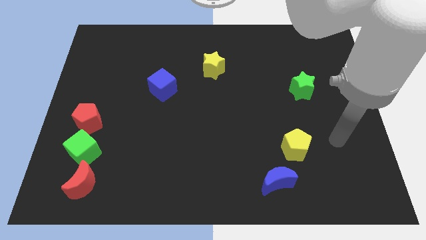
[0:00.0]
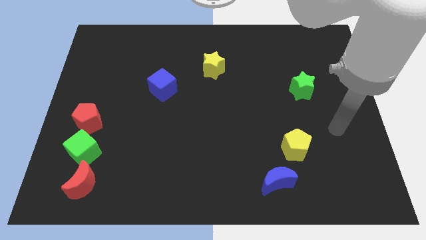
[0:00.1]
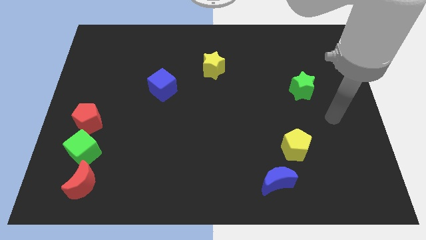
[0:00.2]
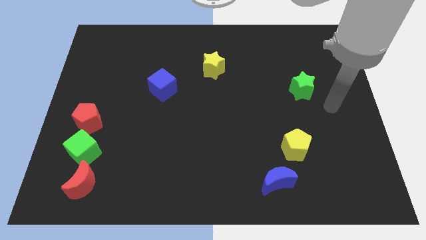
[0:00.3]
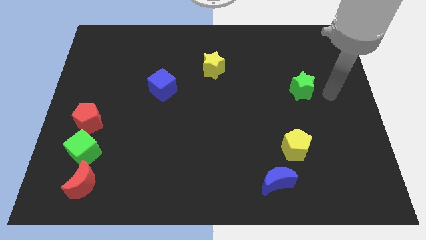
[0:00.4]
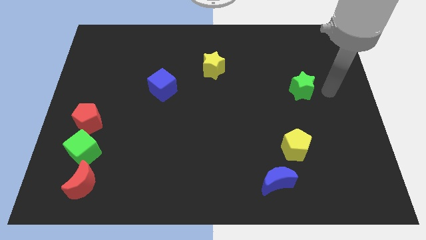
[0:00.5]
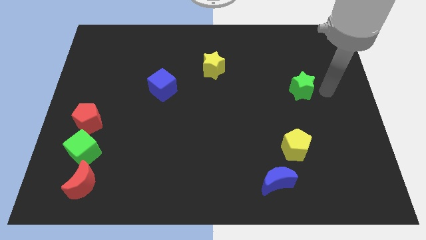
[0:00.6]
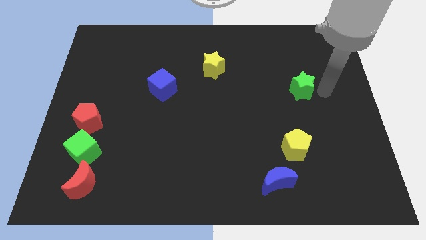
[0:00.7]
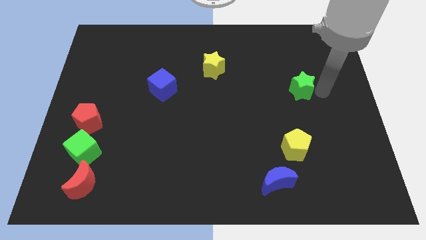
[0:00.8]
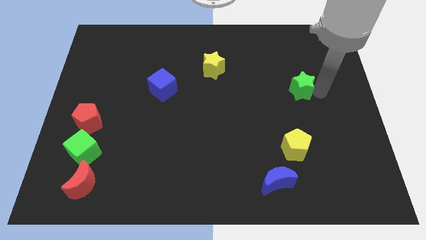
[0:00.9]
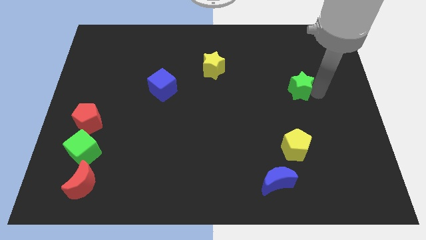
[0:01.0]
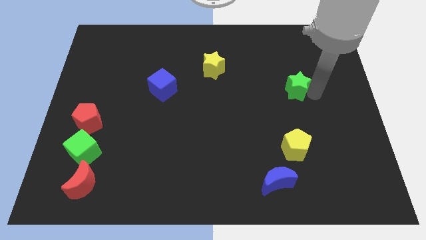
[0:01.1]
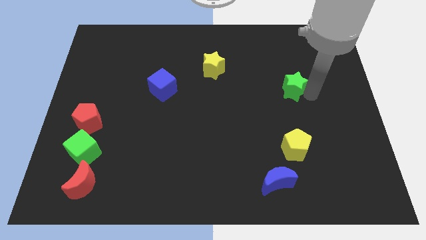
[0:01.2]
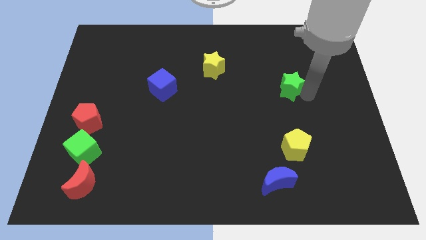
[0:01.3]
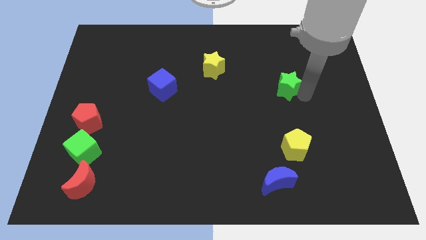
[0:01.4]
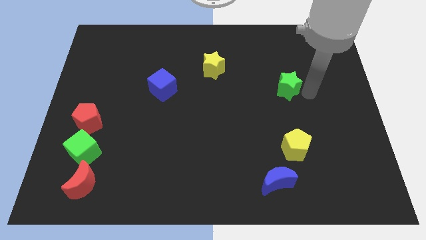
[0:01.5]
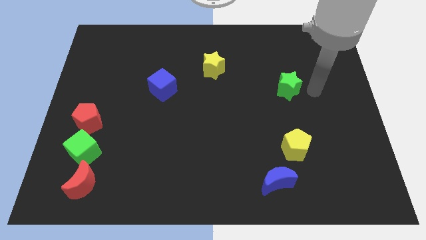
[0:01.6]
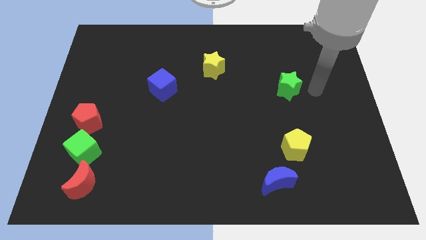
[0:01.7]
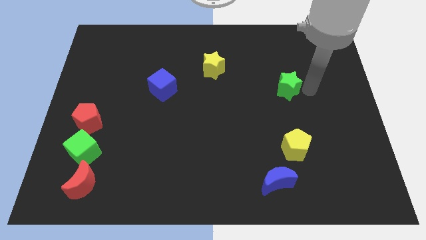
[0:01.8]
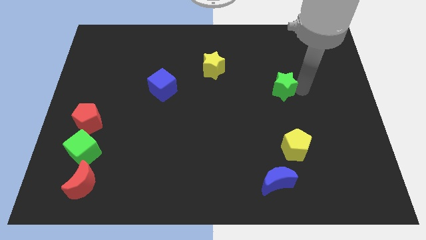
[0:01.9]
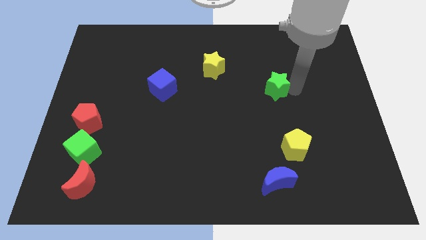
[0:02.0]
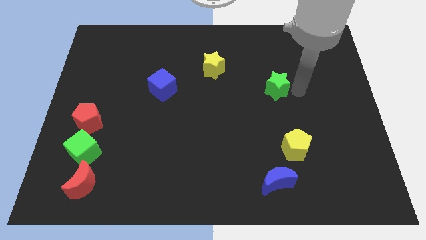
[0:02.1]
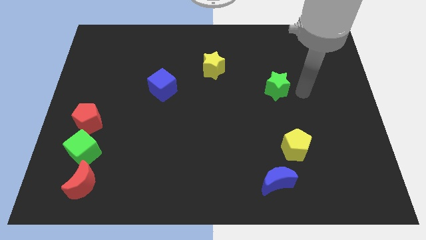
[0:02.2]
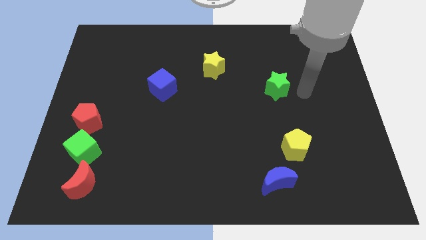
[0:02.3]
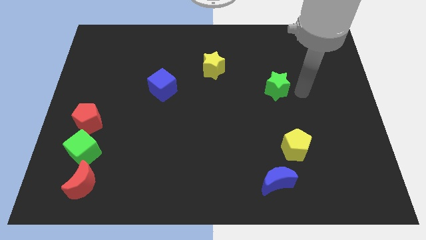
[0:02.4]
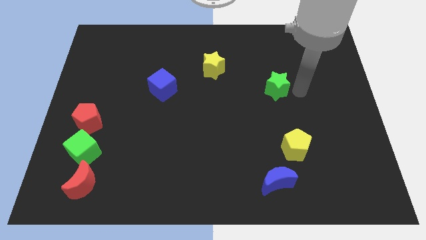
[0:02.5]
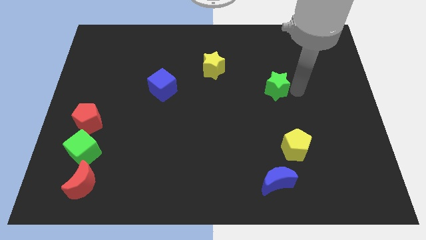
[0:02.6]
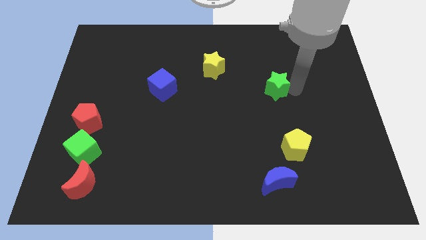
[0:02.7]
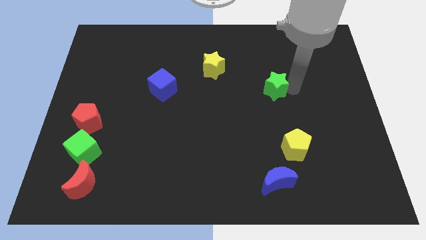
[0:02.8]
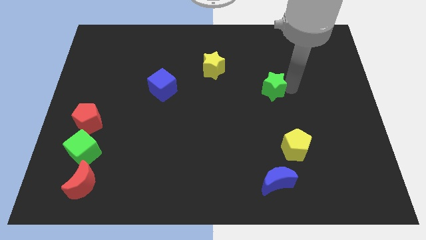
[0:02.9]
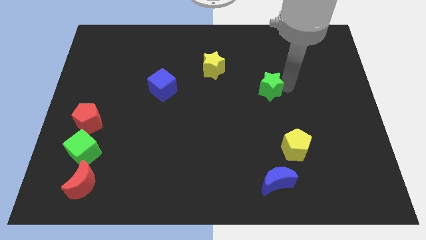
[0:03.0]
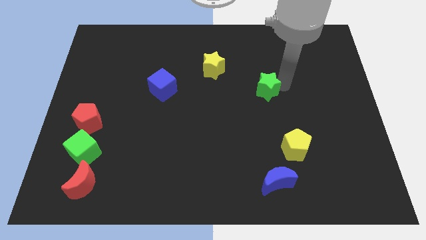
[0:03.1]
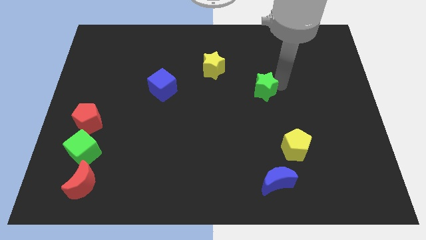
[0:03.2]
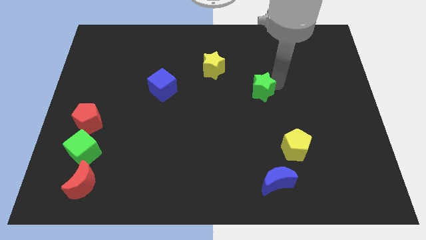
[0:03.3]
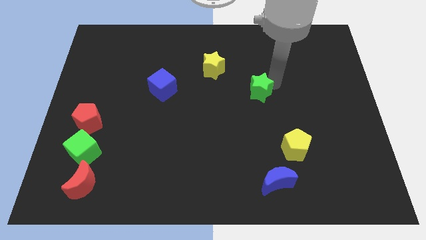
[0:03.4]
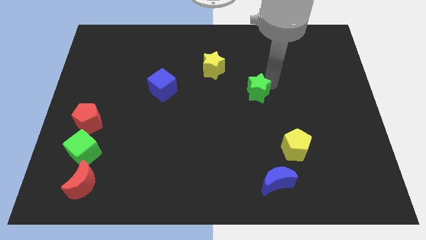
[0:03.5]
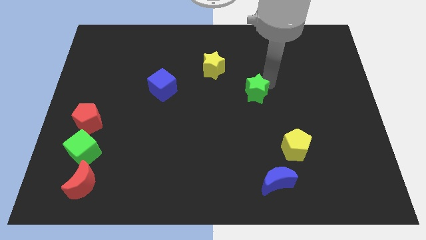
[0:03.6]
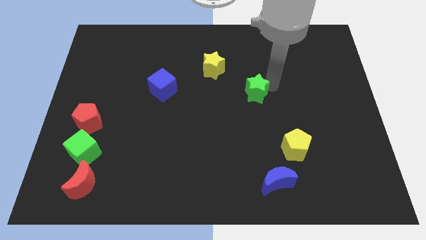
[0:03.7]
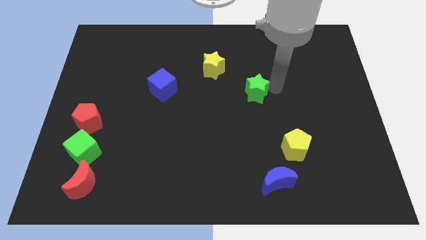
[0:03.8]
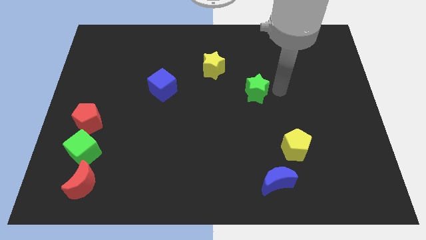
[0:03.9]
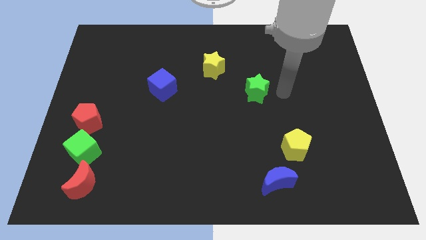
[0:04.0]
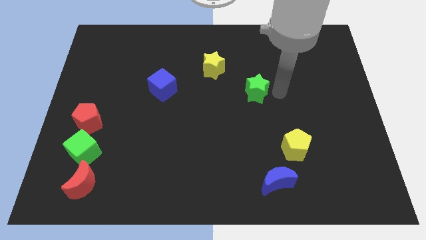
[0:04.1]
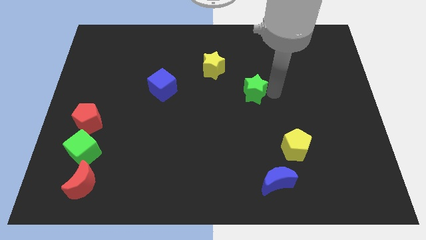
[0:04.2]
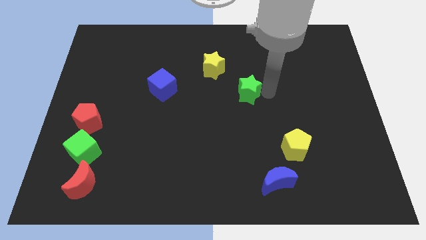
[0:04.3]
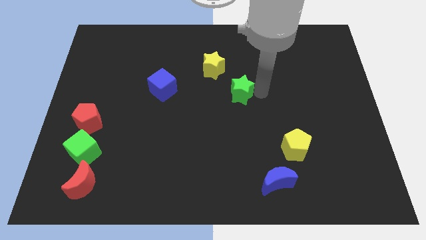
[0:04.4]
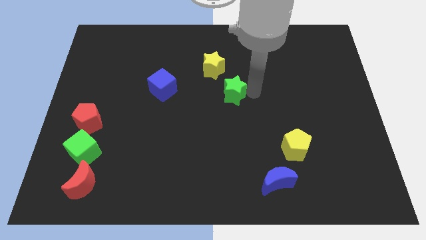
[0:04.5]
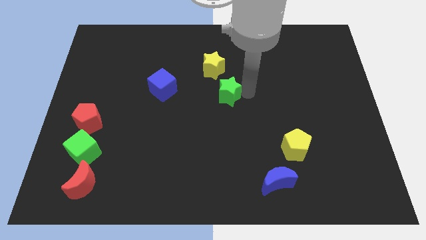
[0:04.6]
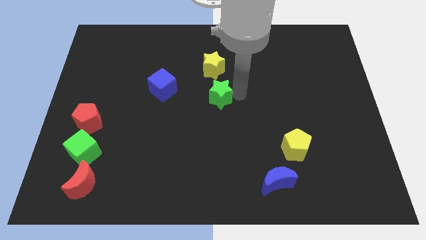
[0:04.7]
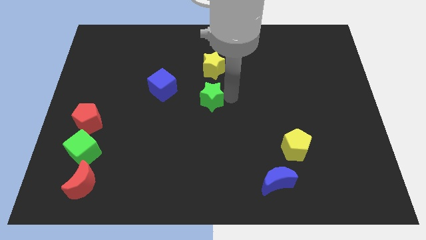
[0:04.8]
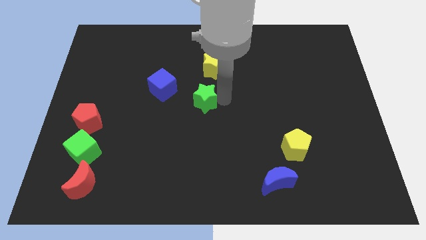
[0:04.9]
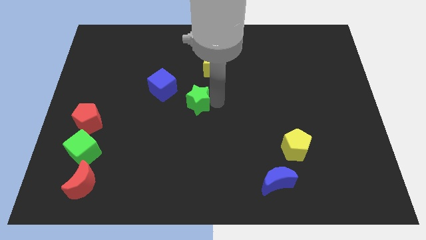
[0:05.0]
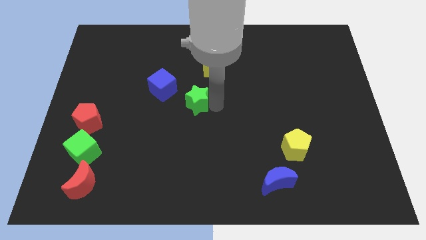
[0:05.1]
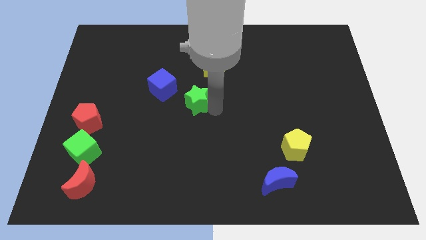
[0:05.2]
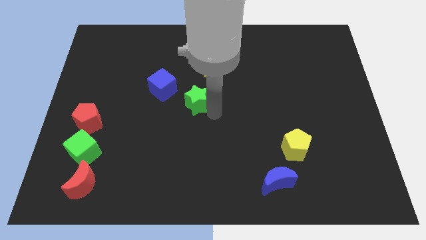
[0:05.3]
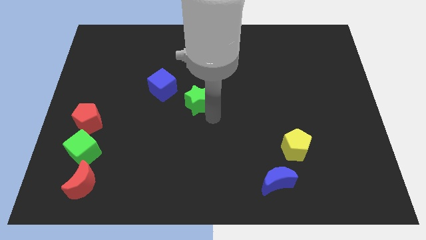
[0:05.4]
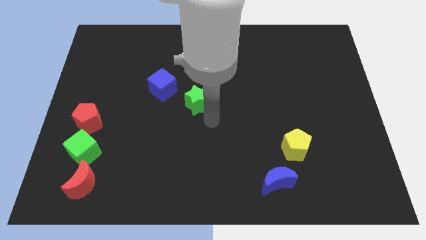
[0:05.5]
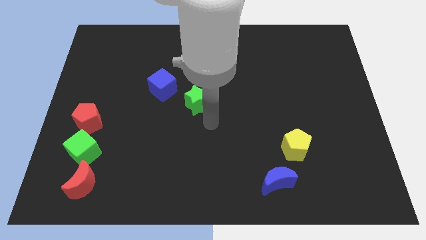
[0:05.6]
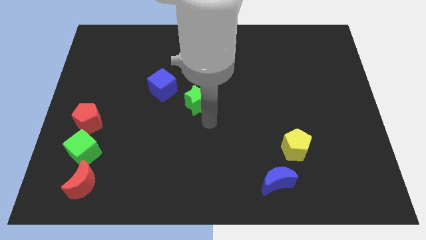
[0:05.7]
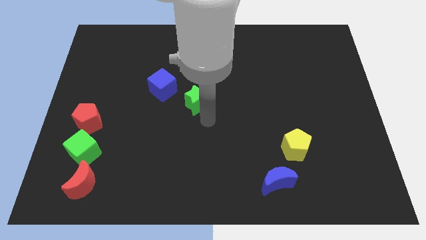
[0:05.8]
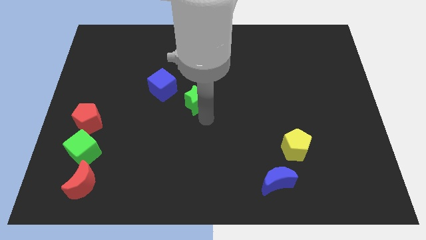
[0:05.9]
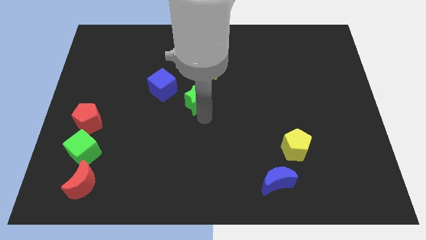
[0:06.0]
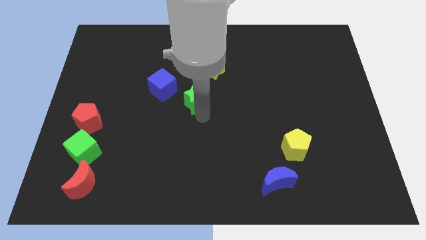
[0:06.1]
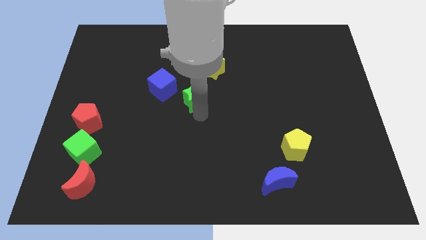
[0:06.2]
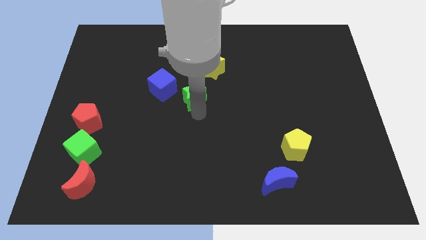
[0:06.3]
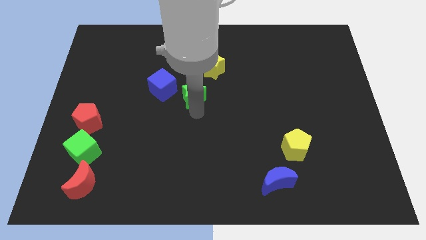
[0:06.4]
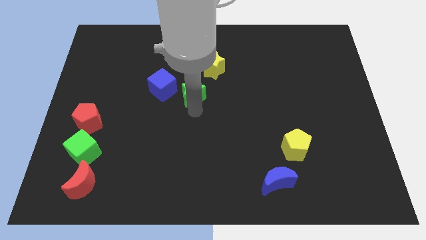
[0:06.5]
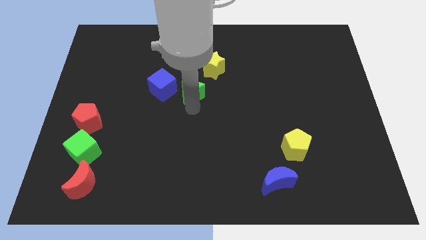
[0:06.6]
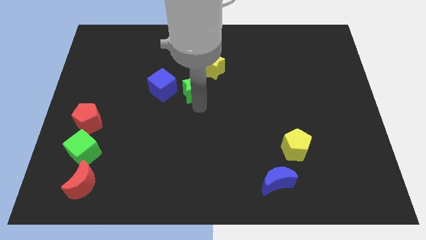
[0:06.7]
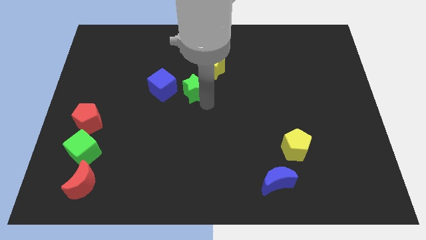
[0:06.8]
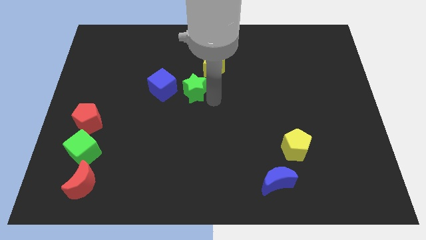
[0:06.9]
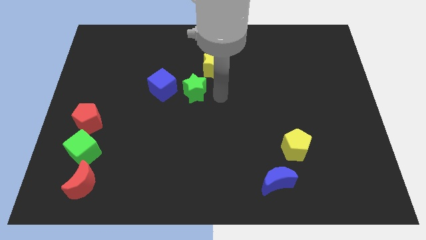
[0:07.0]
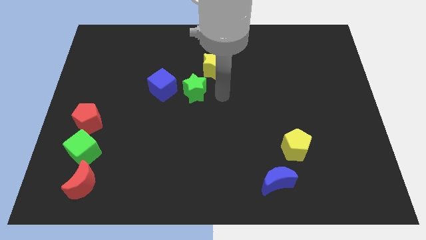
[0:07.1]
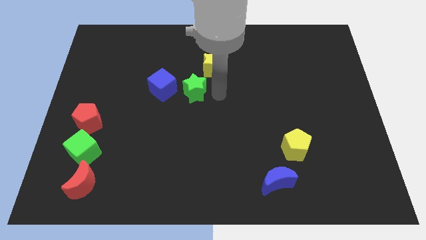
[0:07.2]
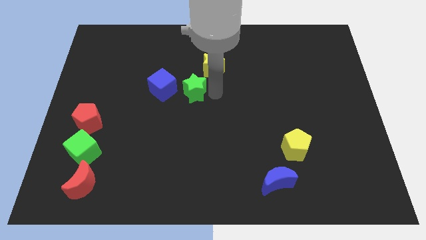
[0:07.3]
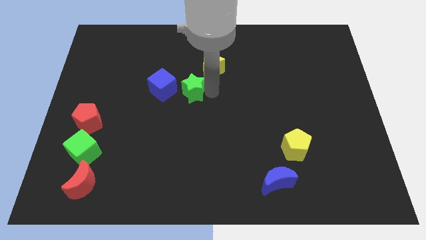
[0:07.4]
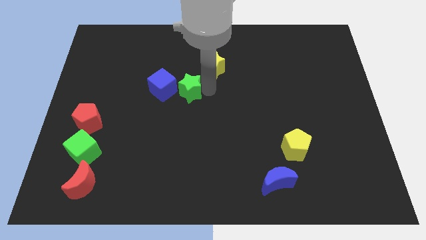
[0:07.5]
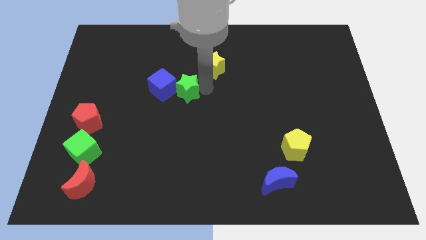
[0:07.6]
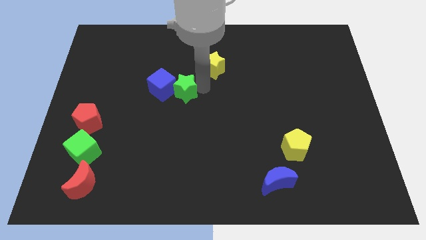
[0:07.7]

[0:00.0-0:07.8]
push the green star close to the blue cube
